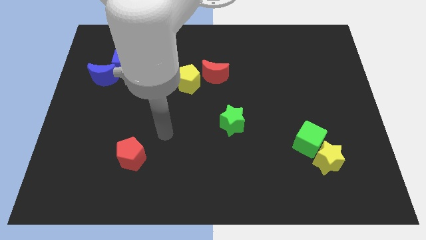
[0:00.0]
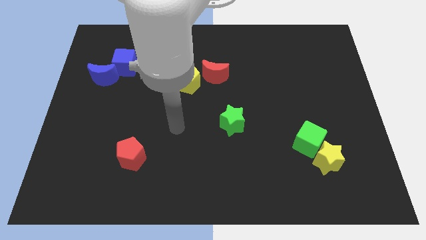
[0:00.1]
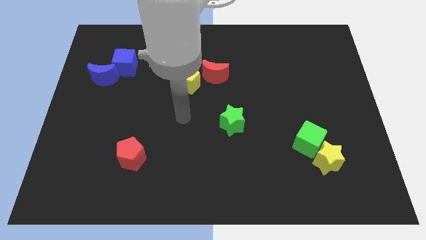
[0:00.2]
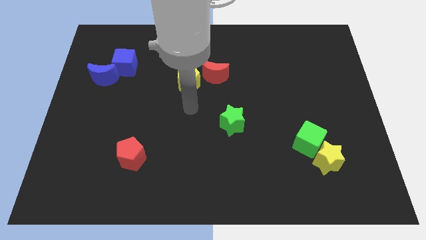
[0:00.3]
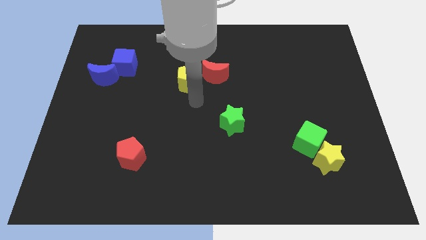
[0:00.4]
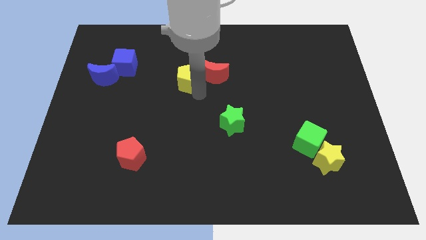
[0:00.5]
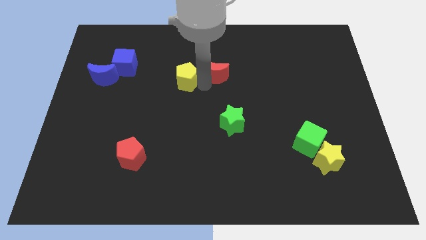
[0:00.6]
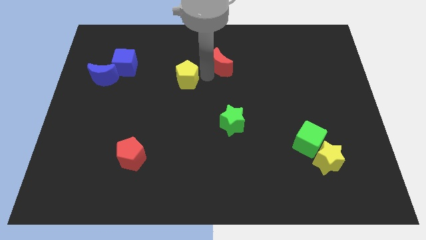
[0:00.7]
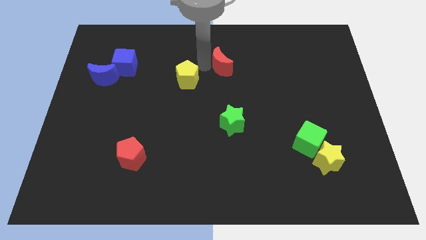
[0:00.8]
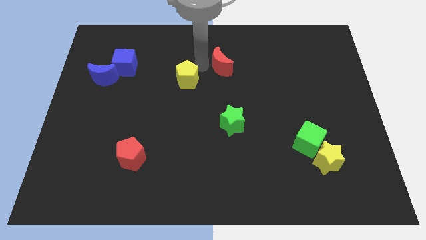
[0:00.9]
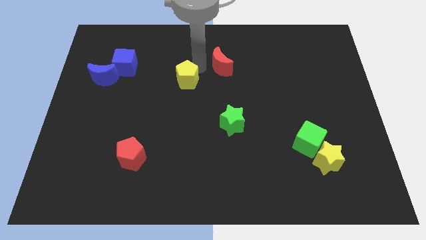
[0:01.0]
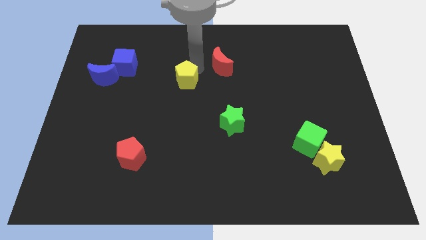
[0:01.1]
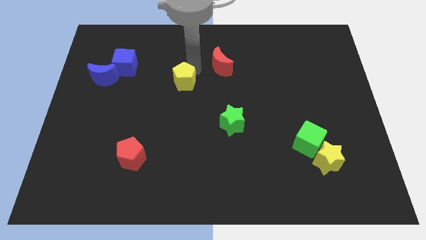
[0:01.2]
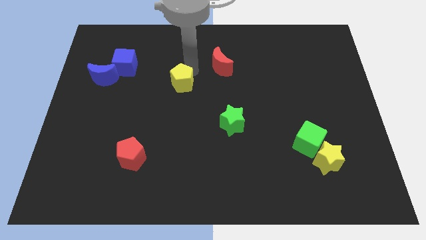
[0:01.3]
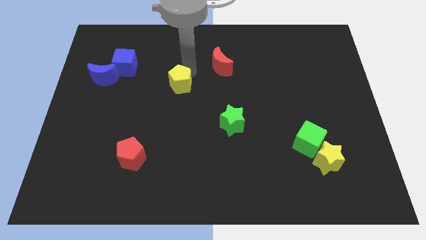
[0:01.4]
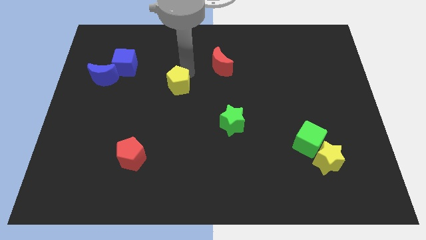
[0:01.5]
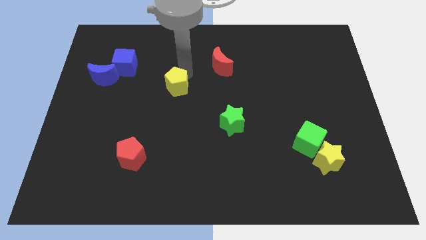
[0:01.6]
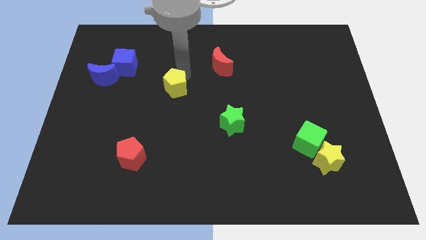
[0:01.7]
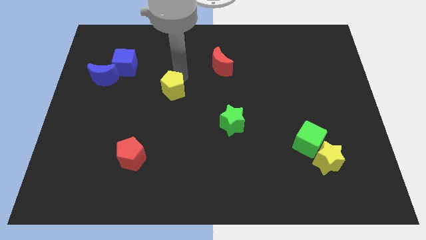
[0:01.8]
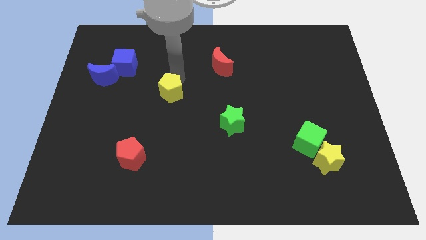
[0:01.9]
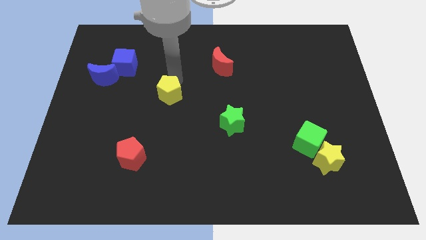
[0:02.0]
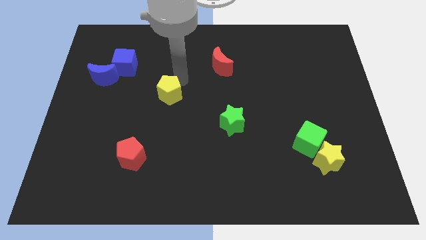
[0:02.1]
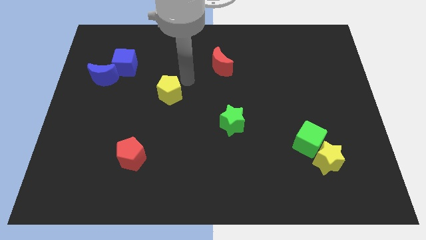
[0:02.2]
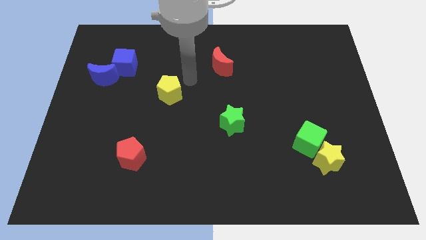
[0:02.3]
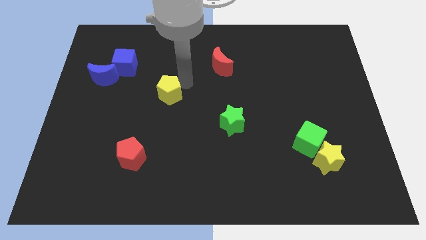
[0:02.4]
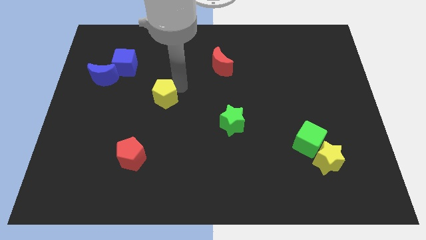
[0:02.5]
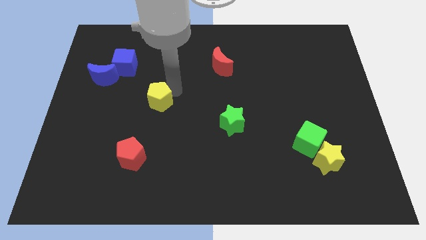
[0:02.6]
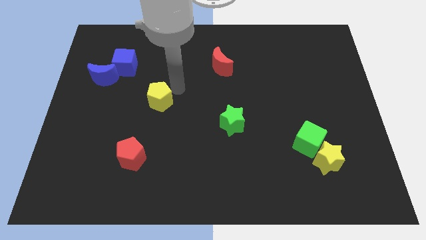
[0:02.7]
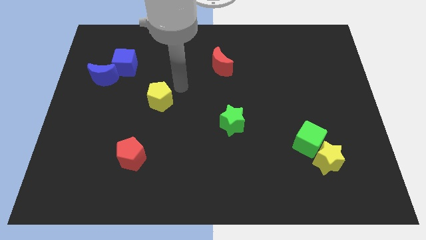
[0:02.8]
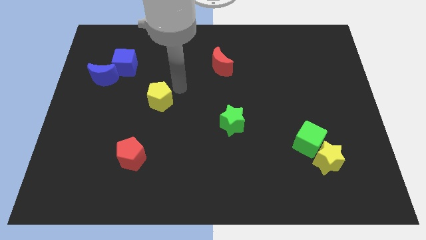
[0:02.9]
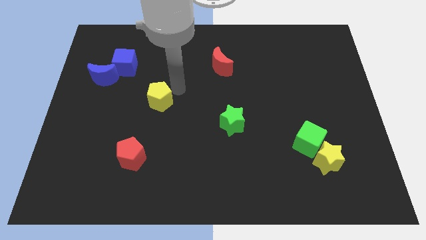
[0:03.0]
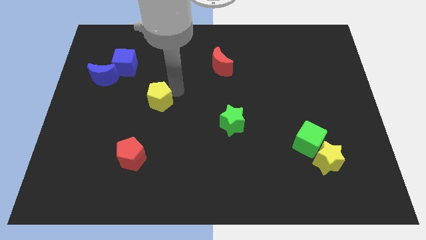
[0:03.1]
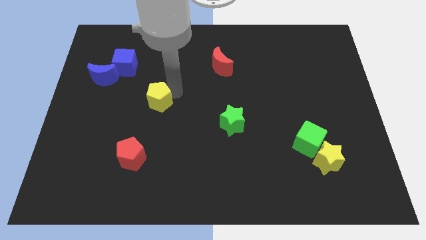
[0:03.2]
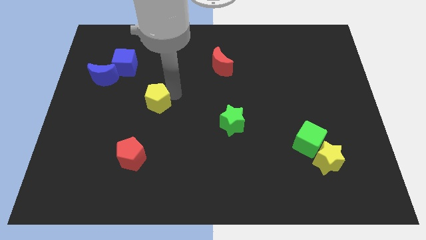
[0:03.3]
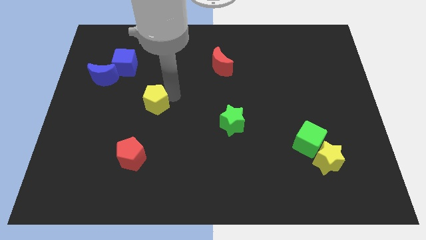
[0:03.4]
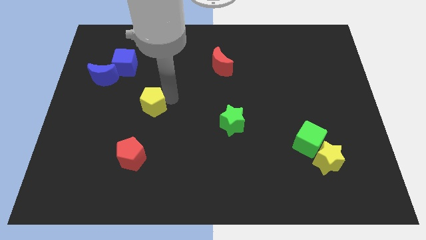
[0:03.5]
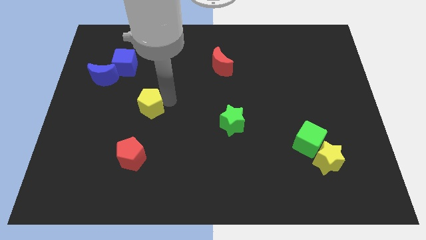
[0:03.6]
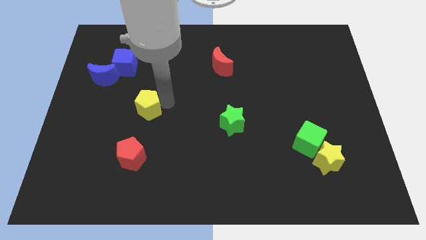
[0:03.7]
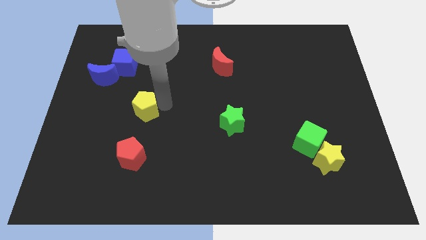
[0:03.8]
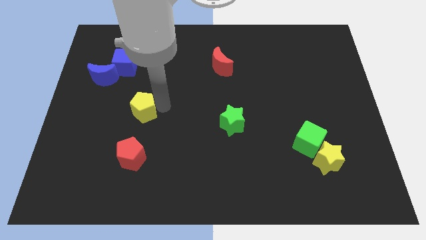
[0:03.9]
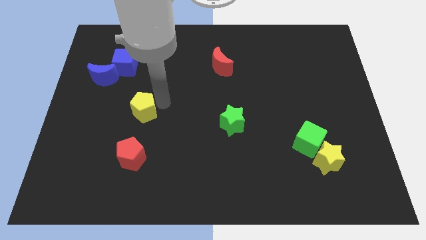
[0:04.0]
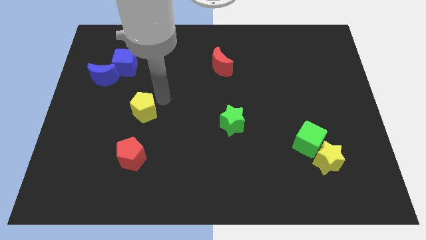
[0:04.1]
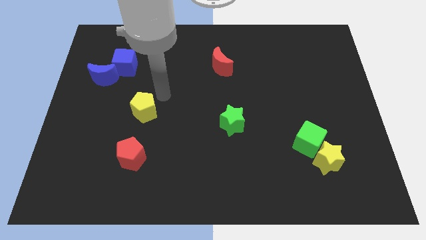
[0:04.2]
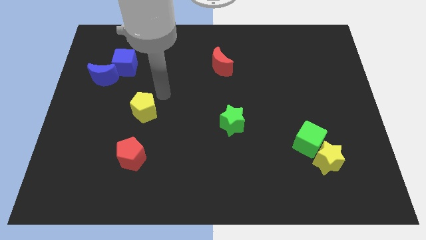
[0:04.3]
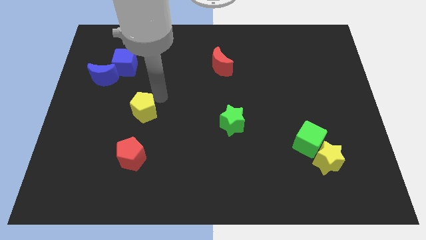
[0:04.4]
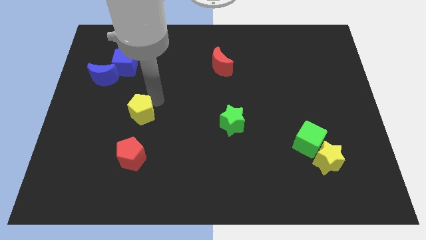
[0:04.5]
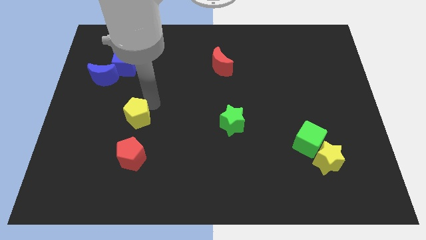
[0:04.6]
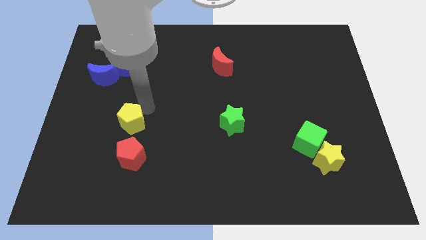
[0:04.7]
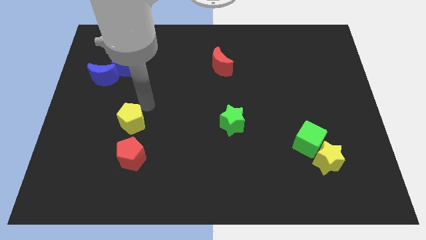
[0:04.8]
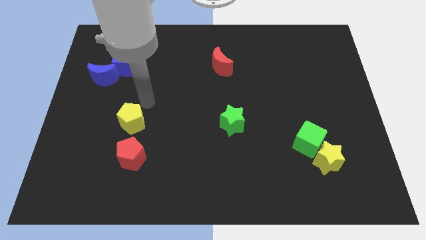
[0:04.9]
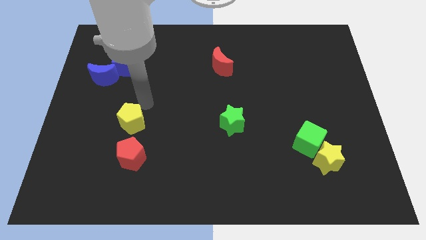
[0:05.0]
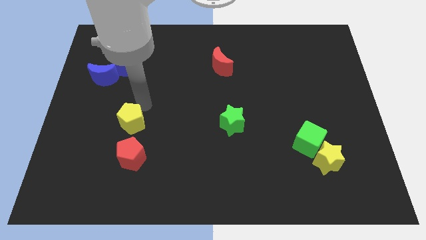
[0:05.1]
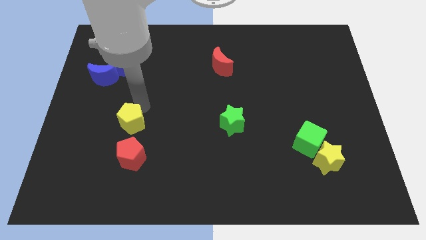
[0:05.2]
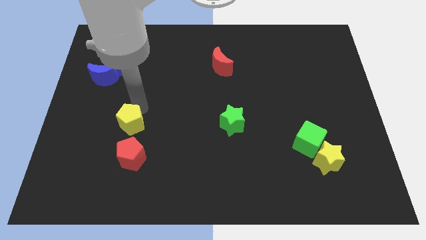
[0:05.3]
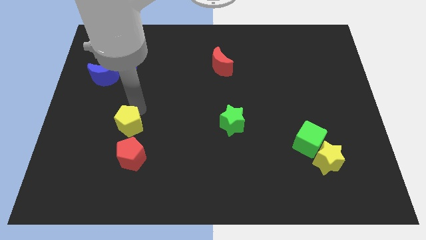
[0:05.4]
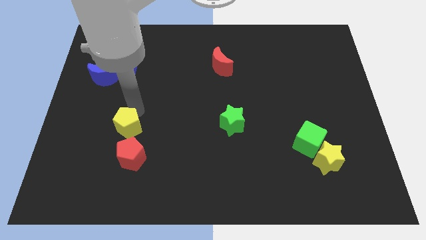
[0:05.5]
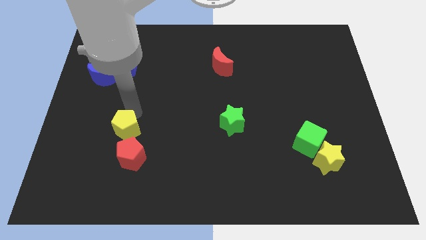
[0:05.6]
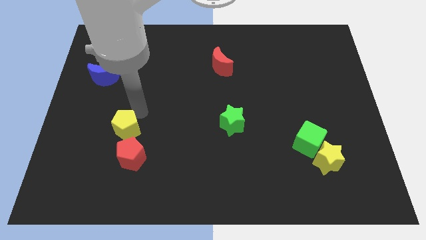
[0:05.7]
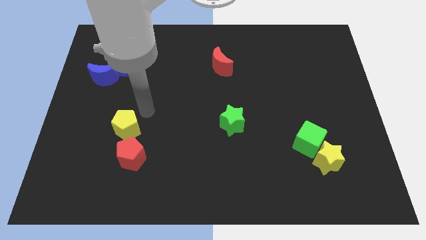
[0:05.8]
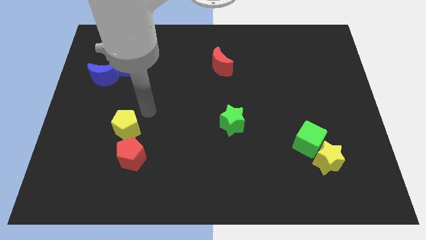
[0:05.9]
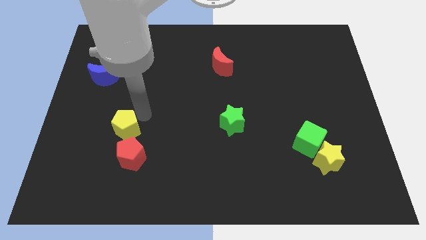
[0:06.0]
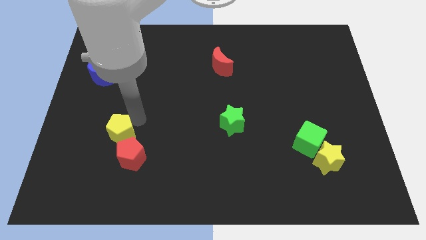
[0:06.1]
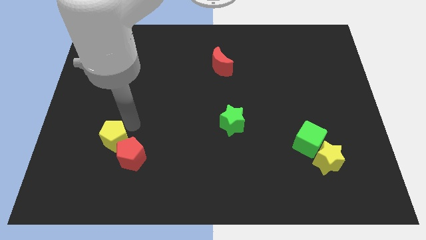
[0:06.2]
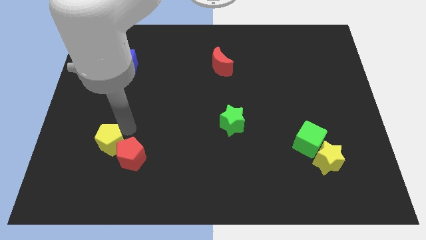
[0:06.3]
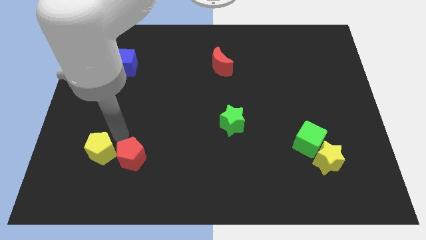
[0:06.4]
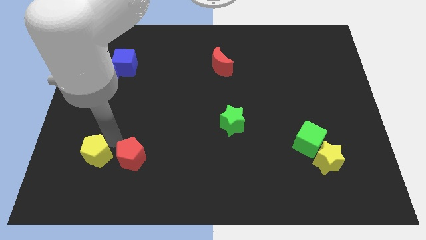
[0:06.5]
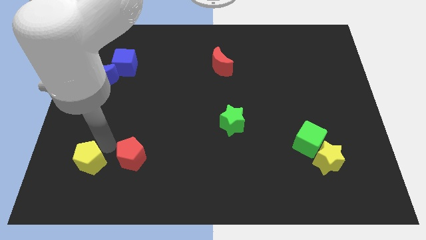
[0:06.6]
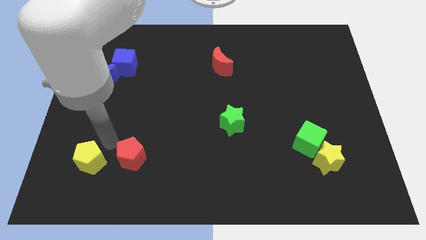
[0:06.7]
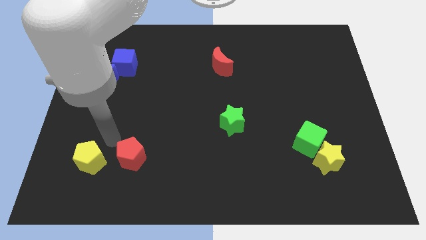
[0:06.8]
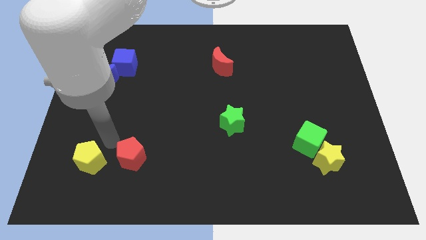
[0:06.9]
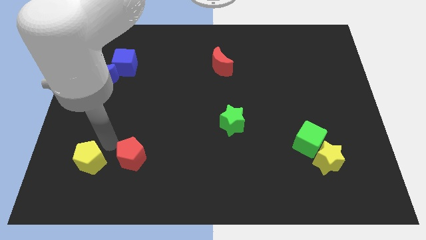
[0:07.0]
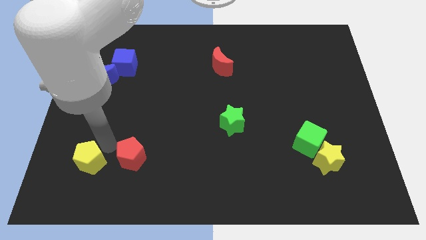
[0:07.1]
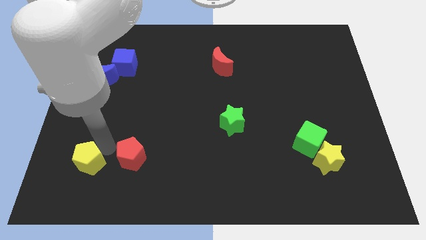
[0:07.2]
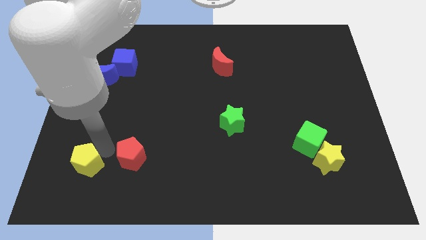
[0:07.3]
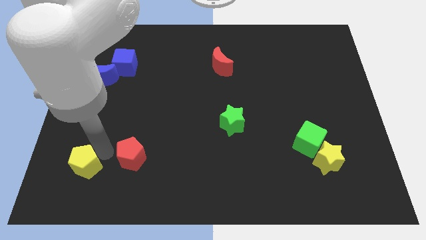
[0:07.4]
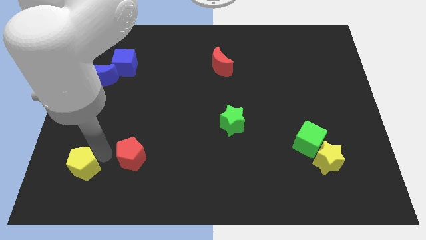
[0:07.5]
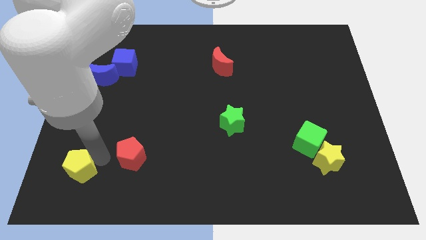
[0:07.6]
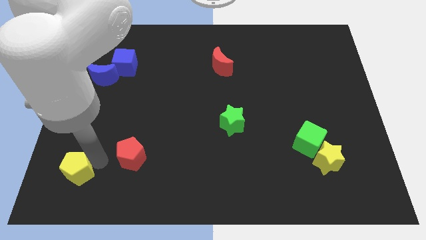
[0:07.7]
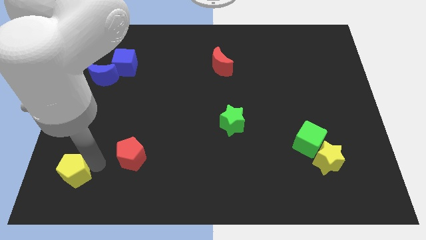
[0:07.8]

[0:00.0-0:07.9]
slide the yellow pentagon to the bottom left
